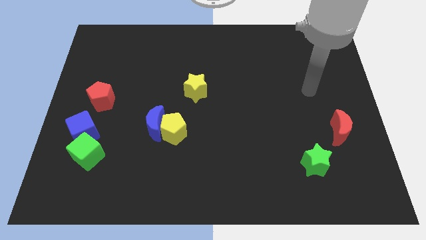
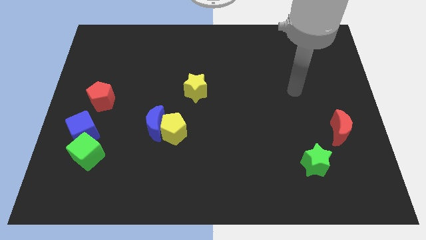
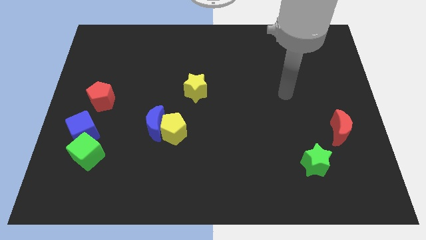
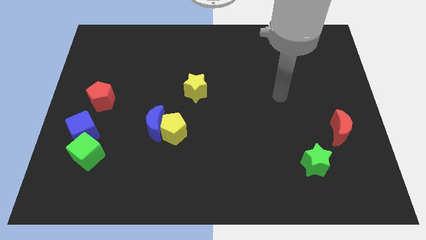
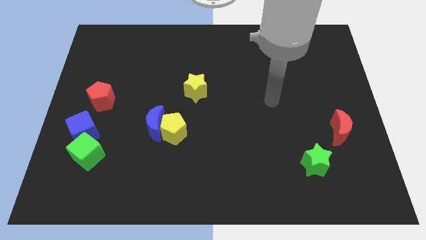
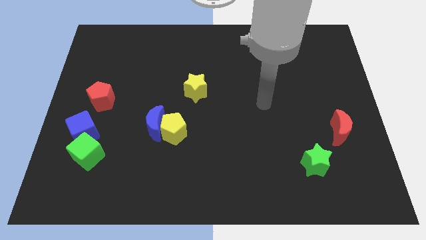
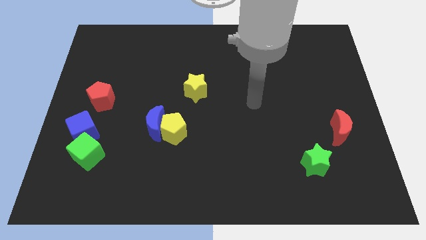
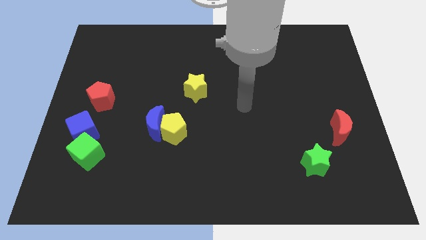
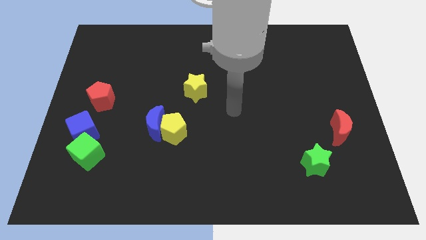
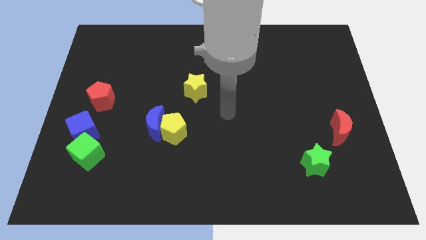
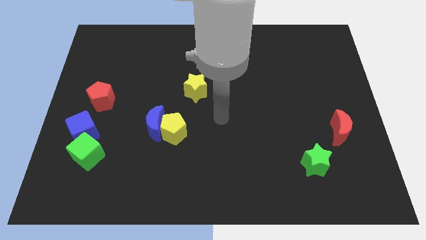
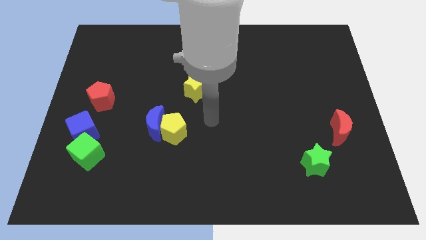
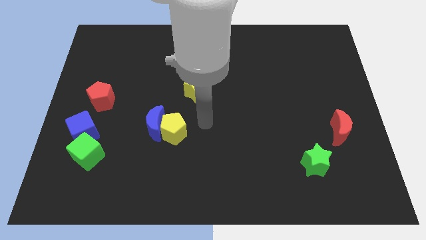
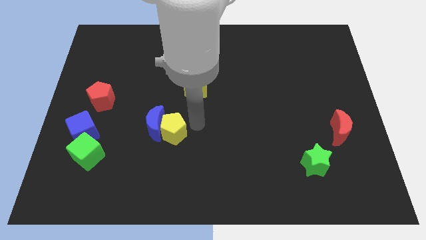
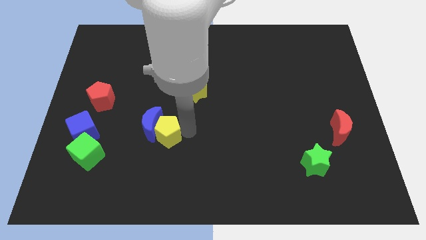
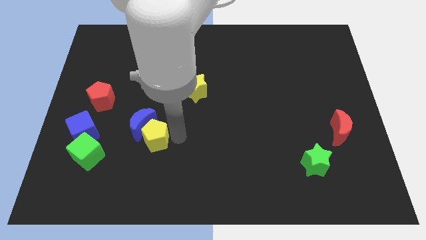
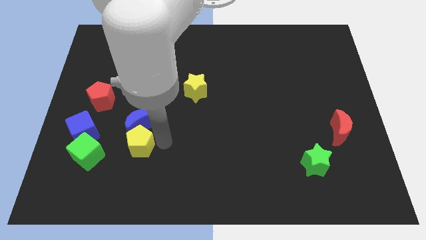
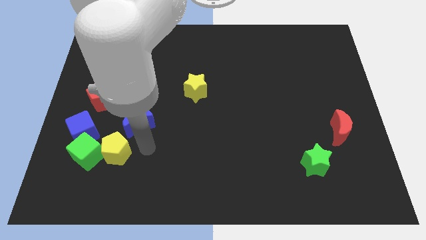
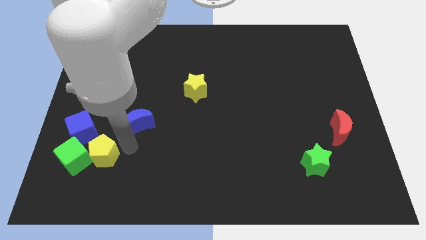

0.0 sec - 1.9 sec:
pull the blue moon apart from the yellow pentagon

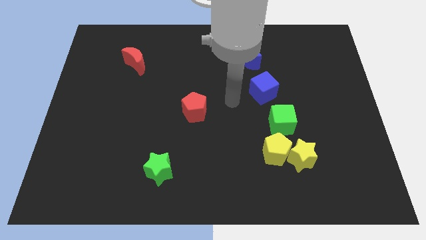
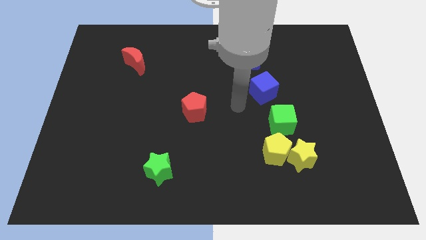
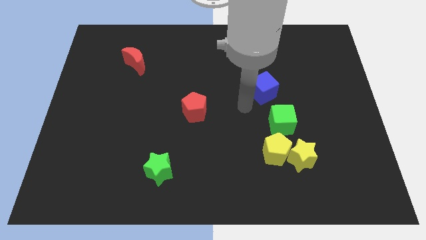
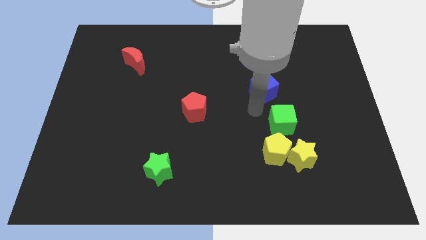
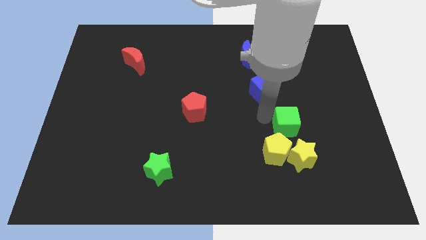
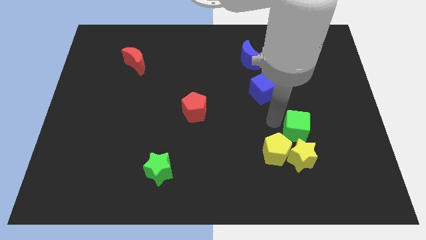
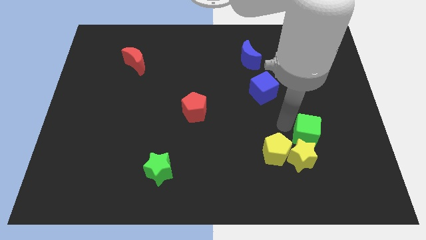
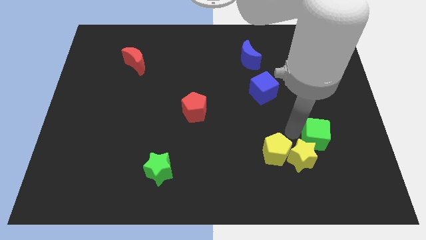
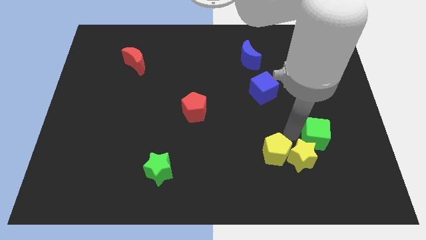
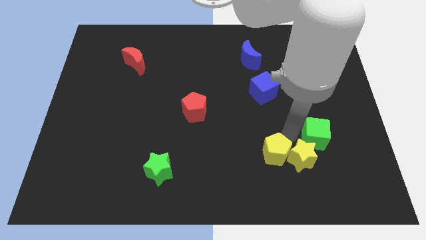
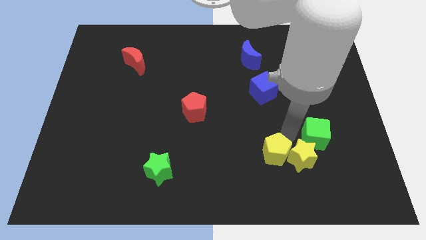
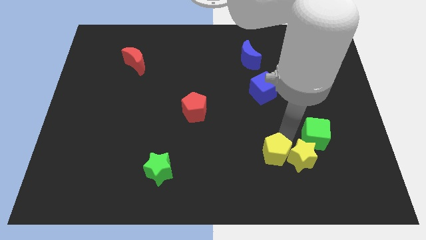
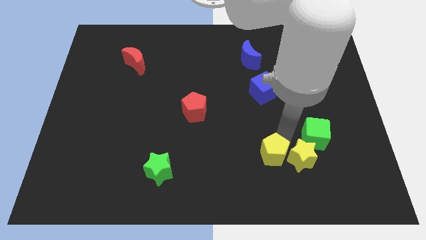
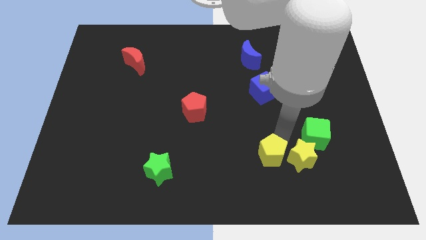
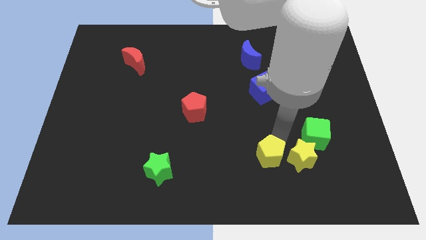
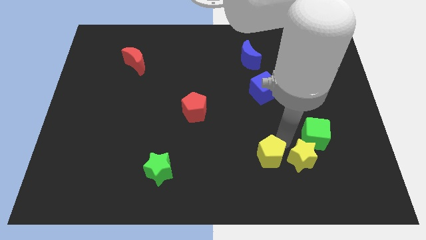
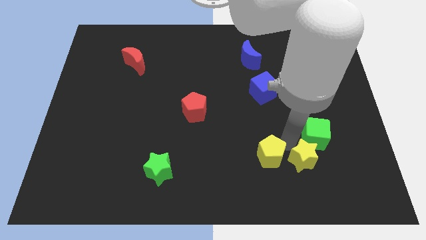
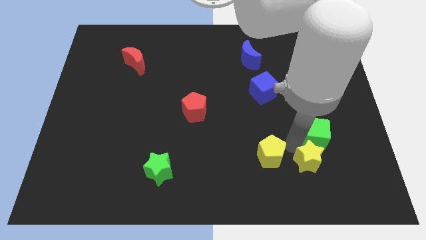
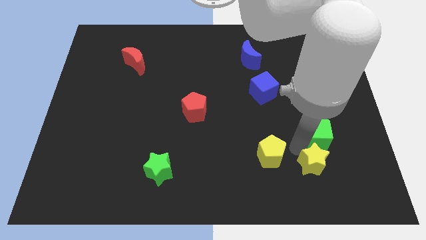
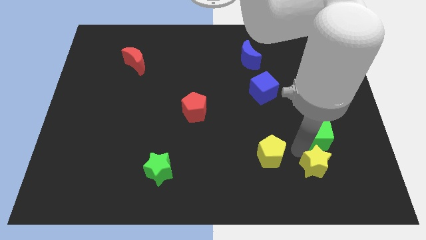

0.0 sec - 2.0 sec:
separate the yellow pentagon from the yellow star and green cube

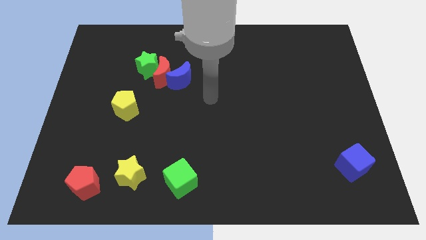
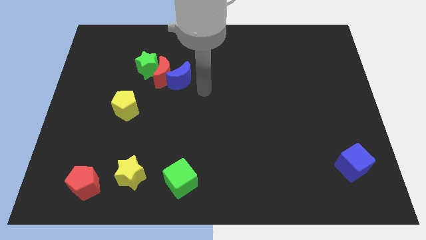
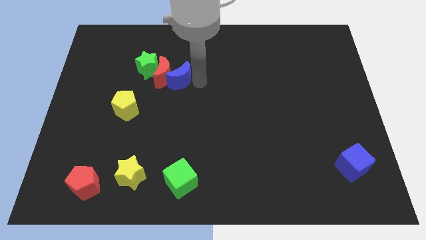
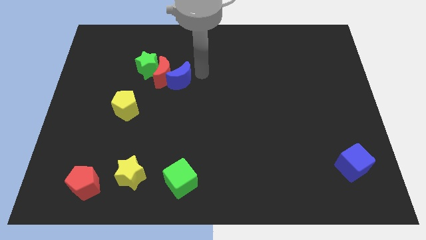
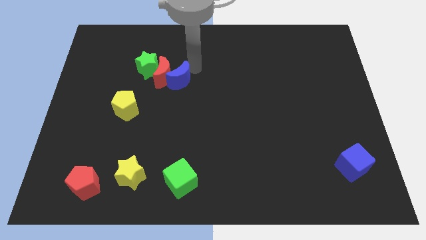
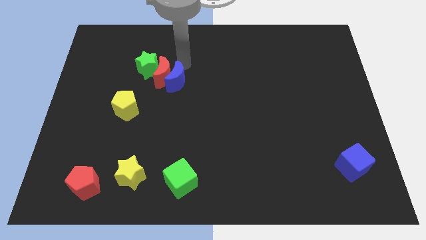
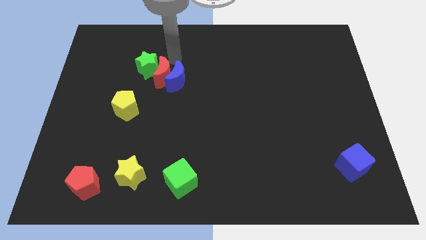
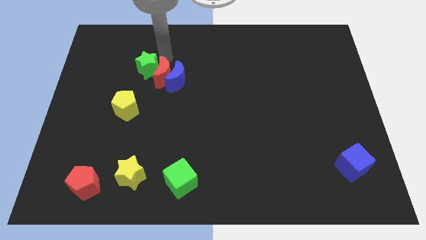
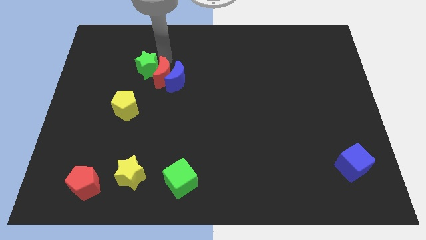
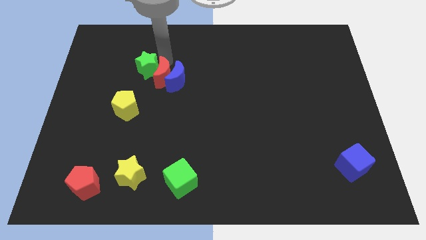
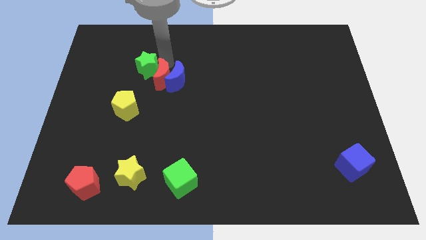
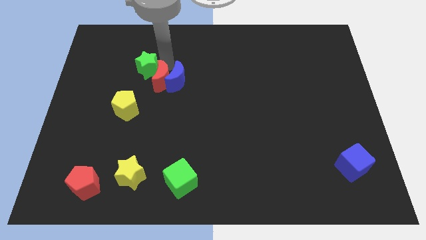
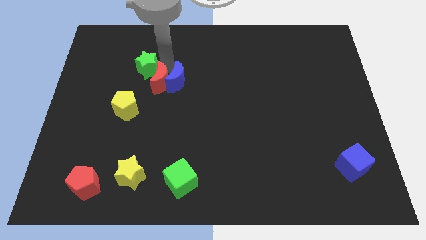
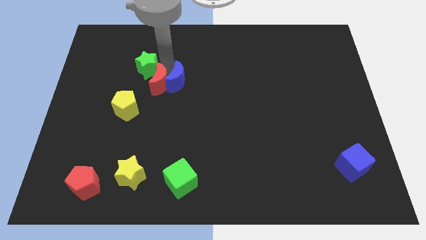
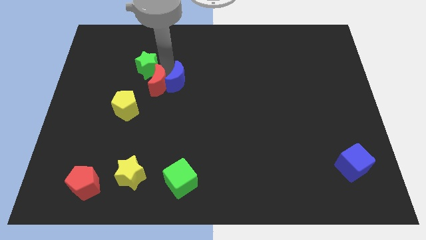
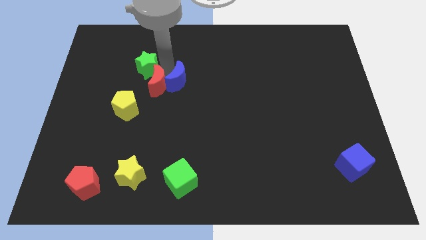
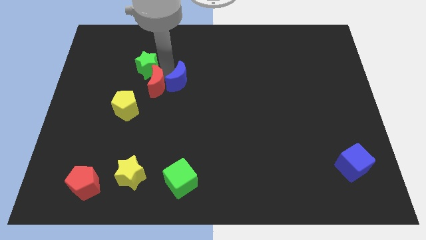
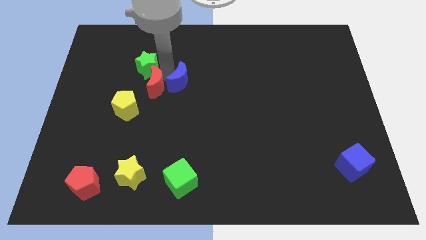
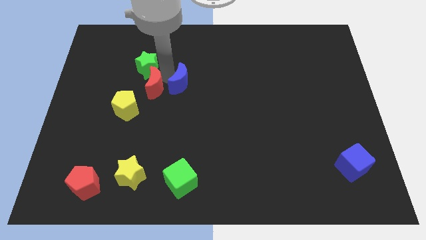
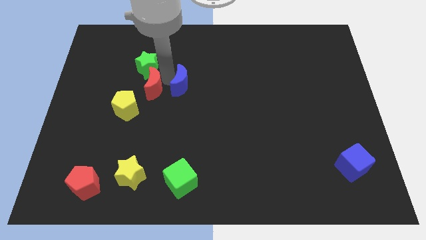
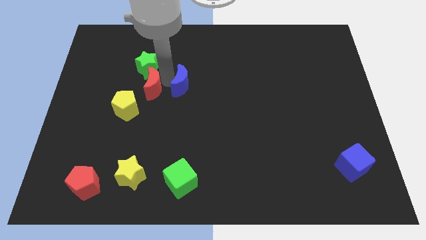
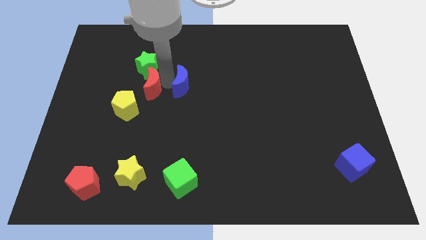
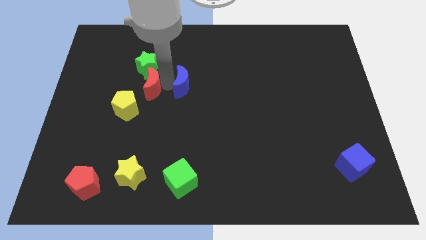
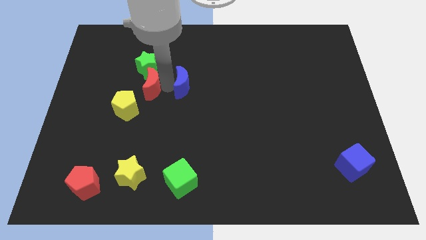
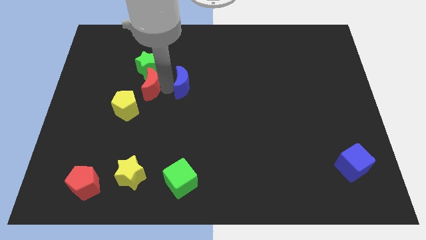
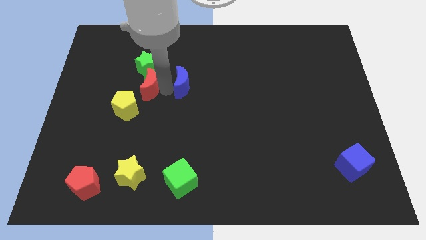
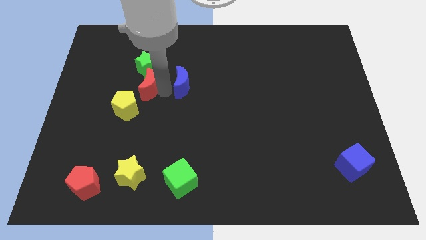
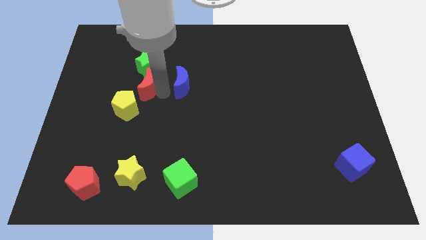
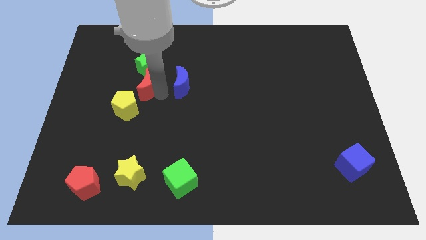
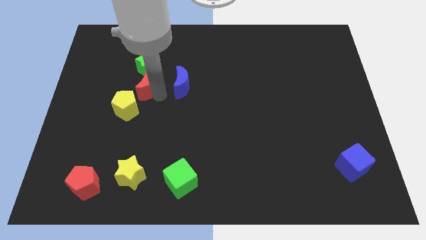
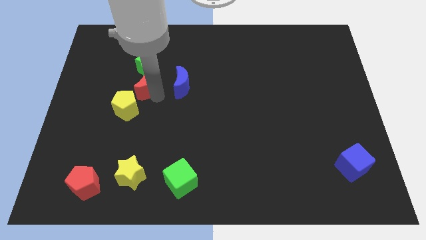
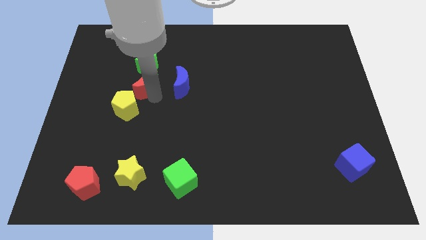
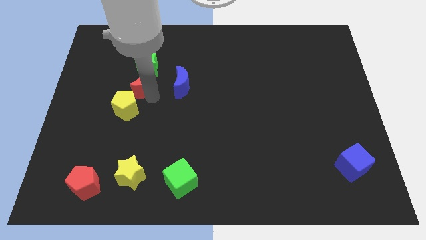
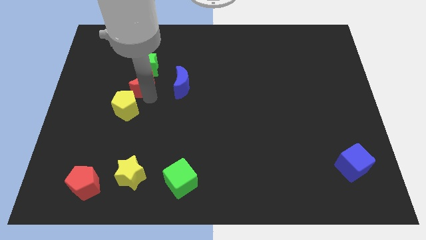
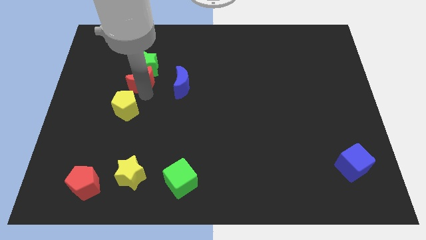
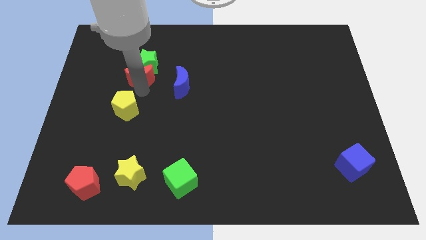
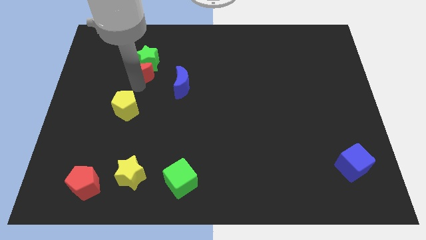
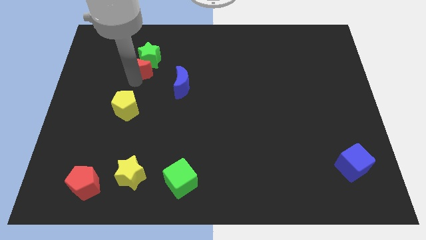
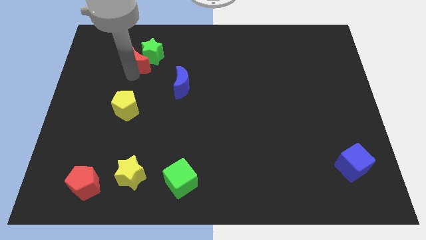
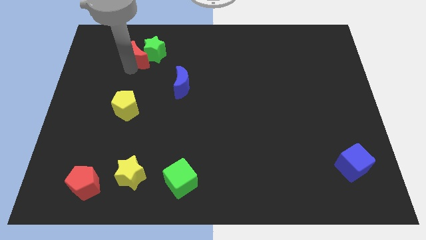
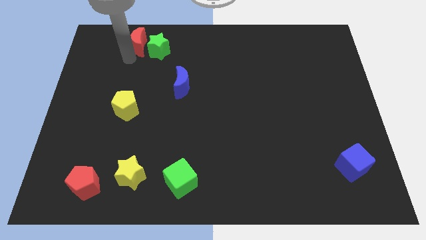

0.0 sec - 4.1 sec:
separate the red moon from the blue moon and green star

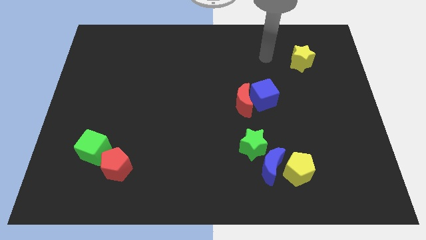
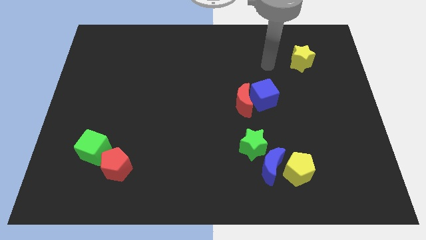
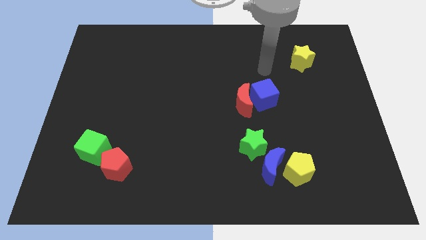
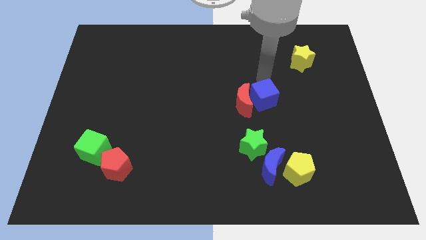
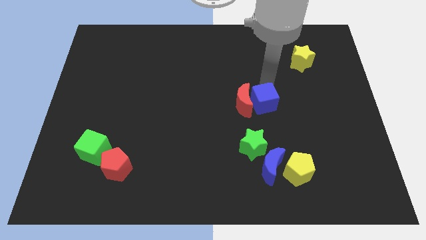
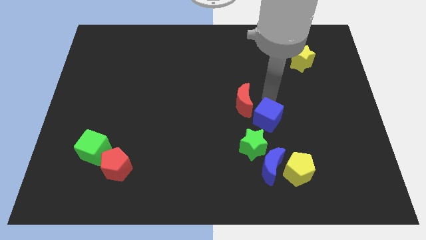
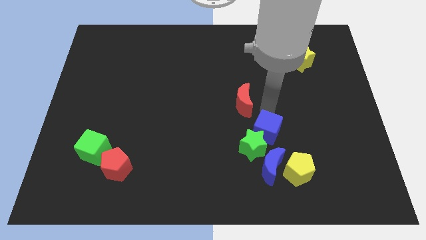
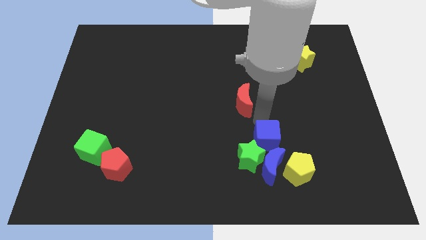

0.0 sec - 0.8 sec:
move the red moon away from the blue cube

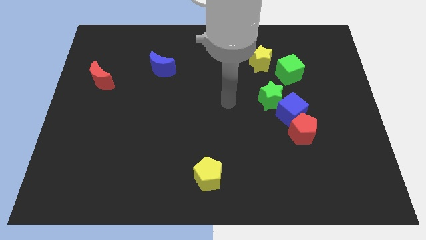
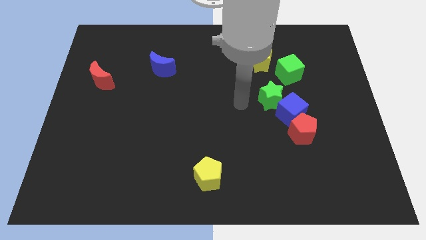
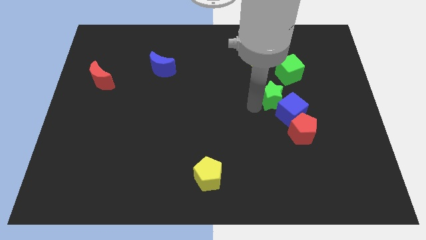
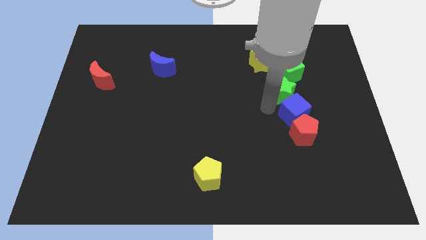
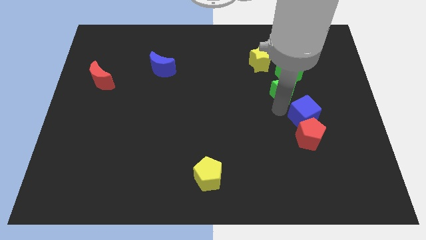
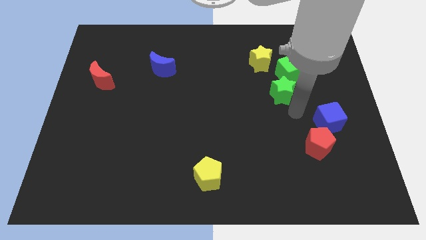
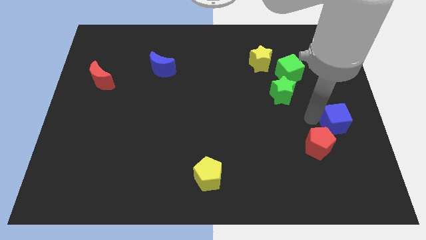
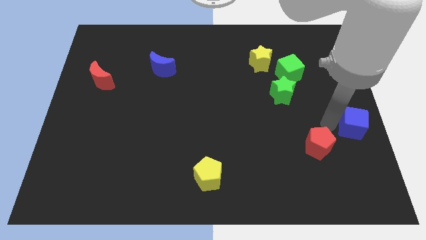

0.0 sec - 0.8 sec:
separate the red pentagon from the blue cube
